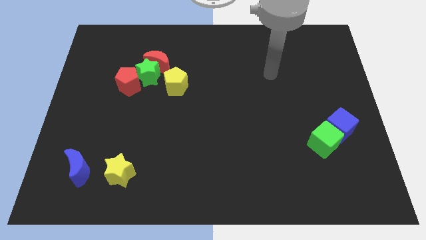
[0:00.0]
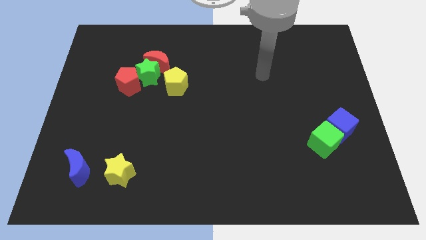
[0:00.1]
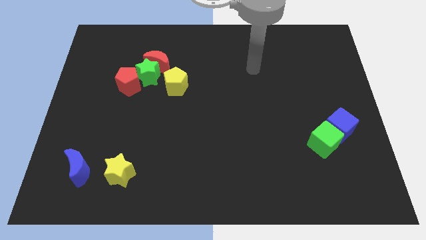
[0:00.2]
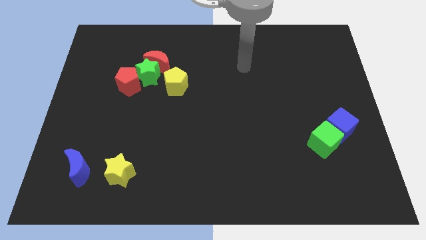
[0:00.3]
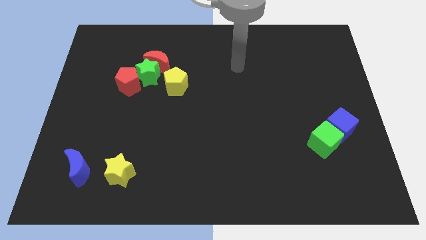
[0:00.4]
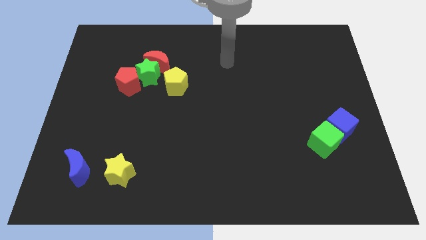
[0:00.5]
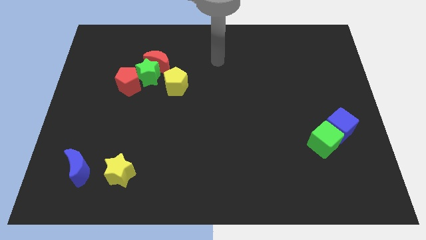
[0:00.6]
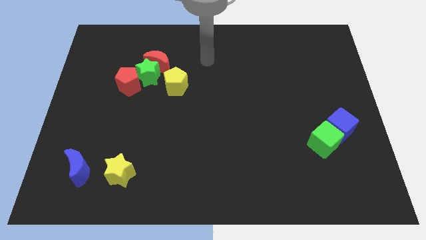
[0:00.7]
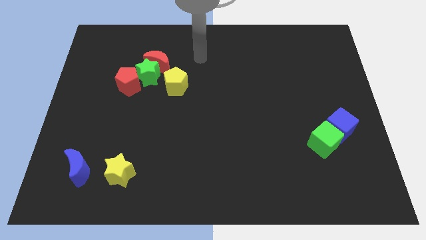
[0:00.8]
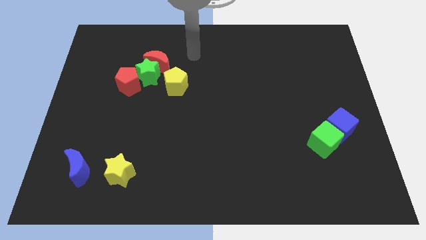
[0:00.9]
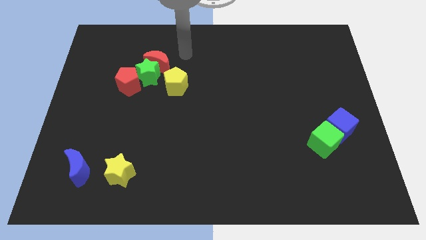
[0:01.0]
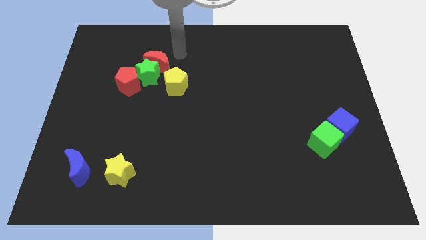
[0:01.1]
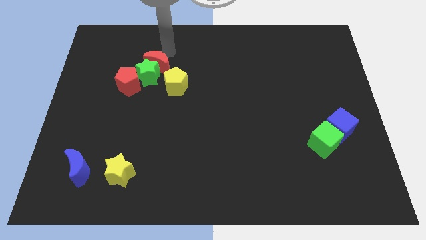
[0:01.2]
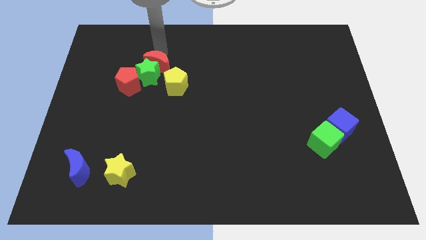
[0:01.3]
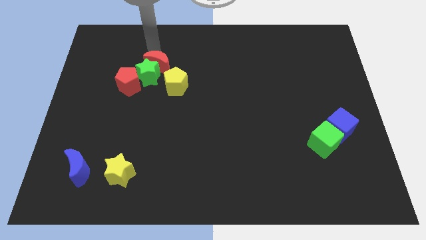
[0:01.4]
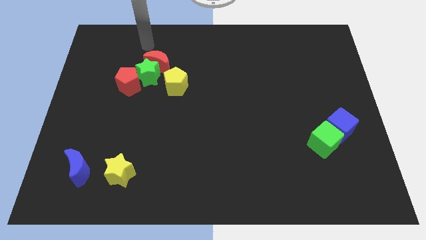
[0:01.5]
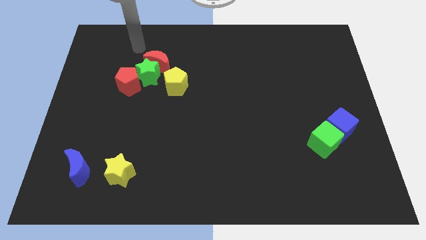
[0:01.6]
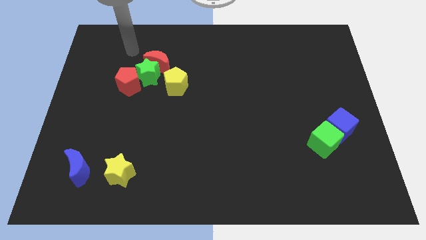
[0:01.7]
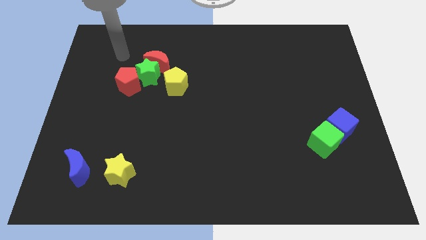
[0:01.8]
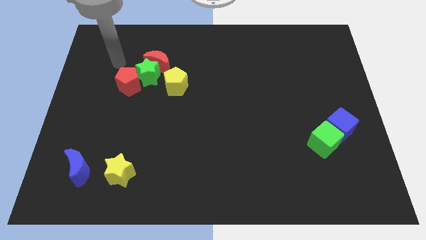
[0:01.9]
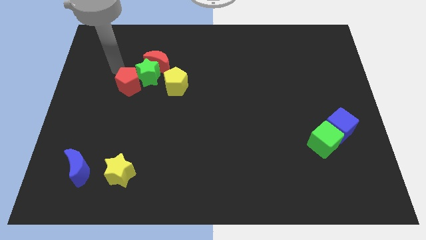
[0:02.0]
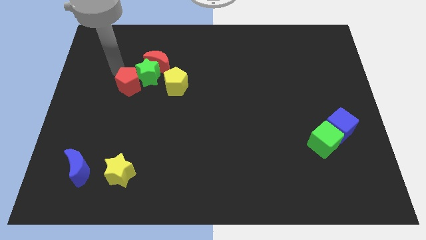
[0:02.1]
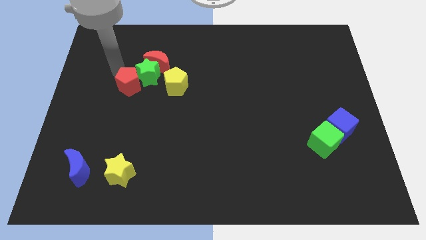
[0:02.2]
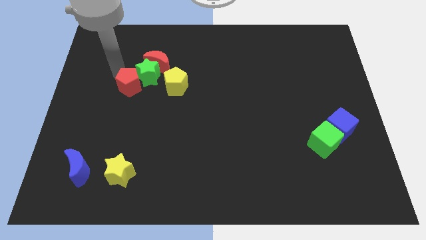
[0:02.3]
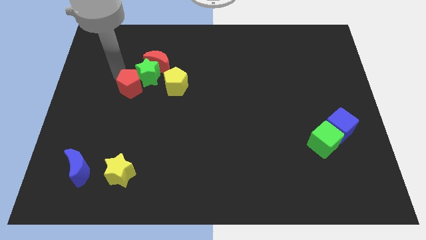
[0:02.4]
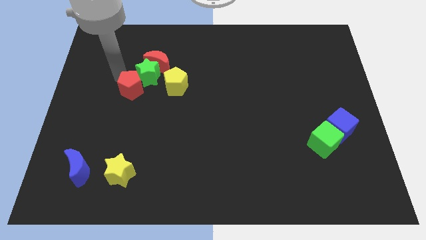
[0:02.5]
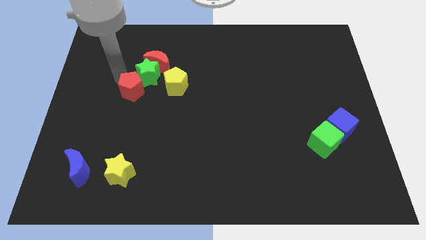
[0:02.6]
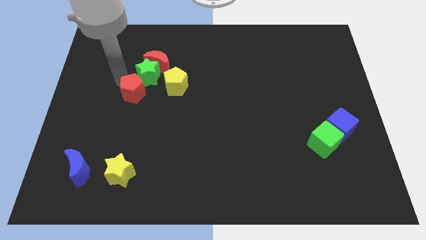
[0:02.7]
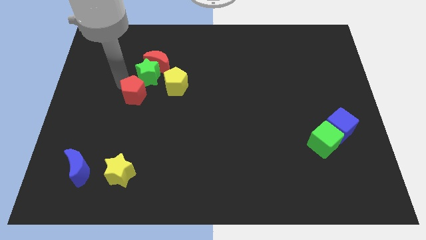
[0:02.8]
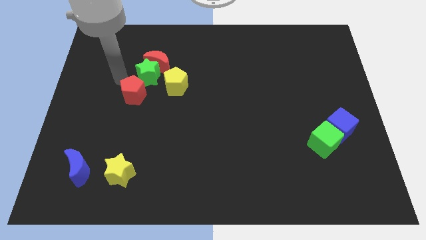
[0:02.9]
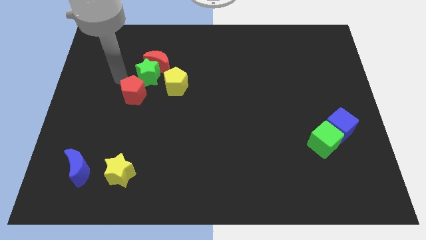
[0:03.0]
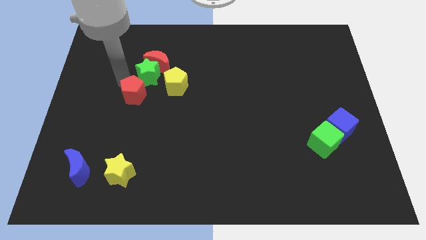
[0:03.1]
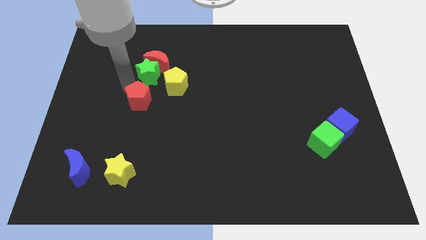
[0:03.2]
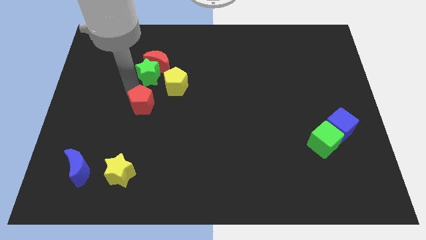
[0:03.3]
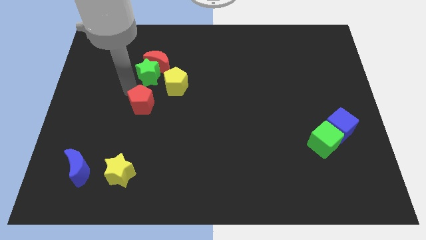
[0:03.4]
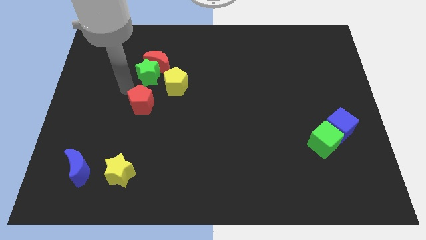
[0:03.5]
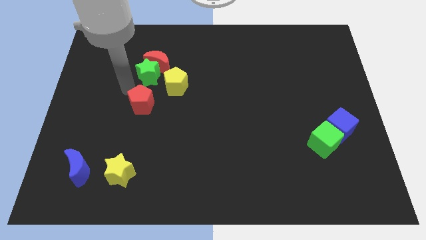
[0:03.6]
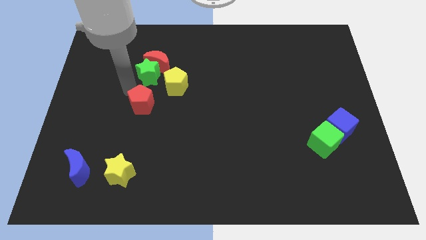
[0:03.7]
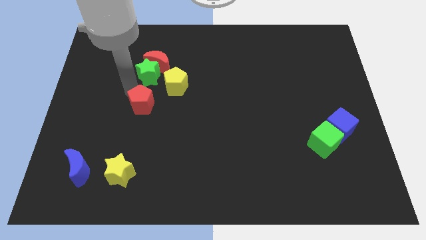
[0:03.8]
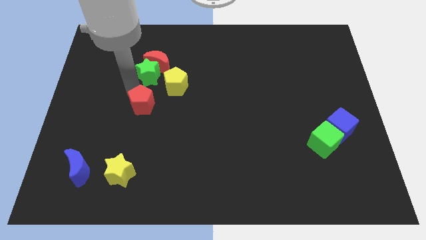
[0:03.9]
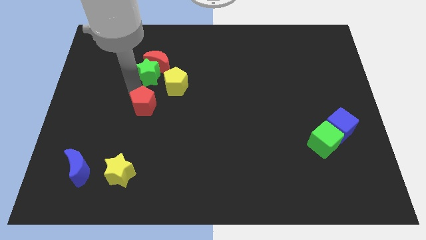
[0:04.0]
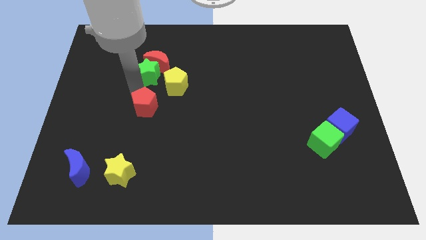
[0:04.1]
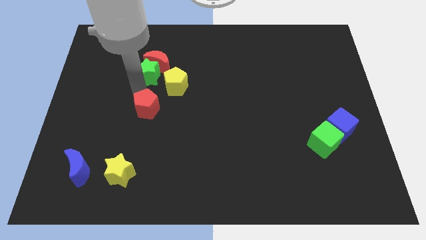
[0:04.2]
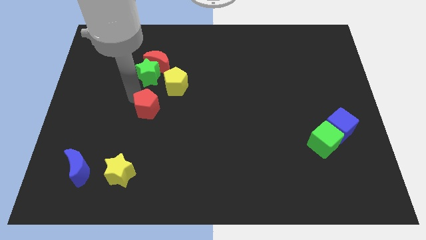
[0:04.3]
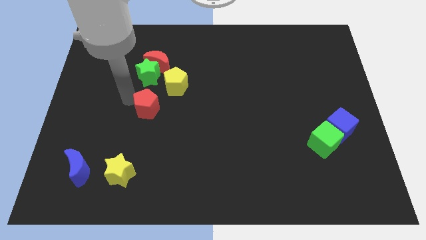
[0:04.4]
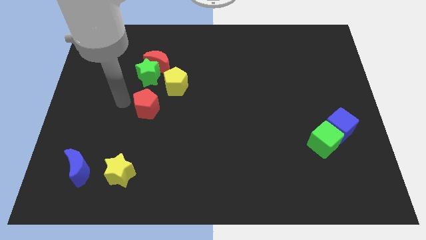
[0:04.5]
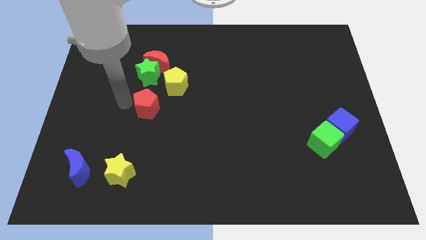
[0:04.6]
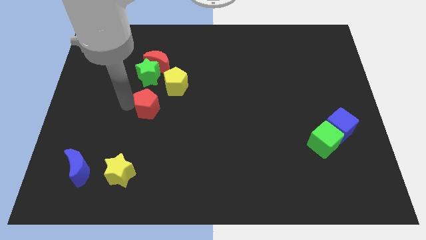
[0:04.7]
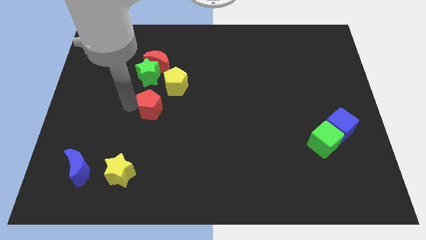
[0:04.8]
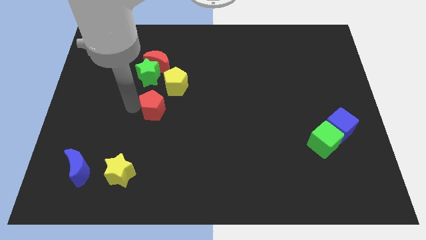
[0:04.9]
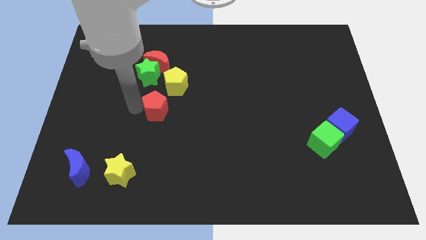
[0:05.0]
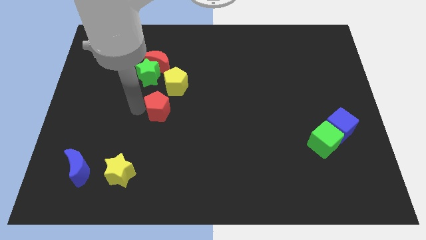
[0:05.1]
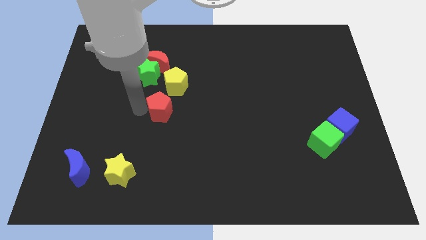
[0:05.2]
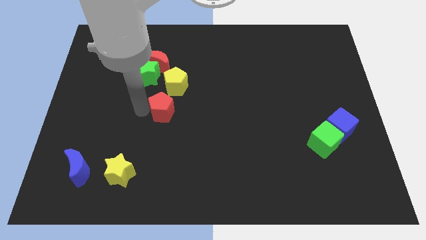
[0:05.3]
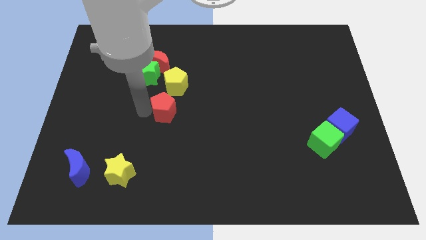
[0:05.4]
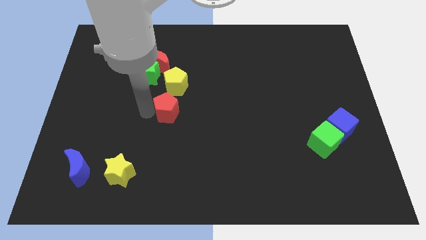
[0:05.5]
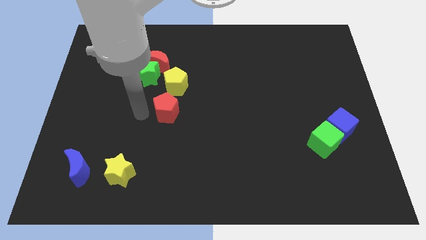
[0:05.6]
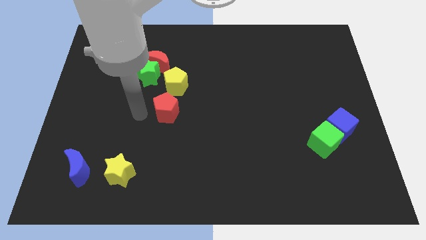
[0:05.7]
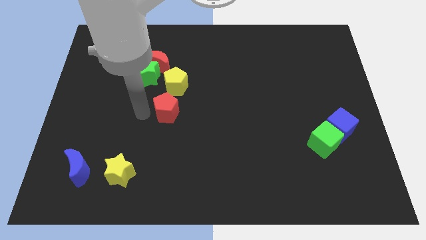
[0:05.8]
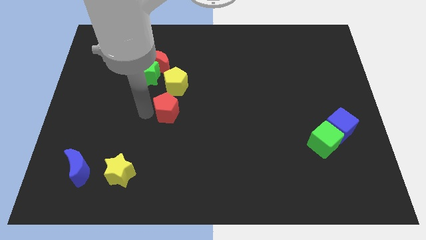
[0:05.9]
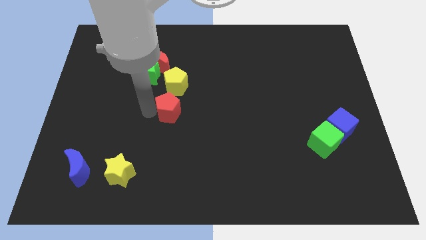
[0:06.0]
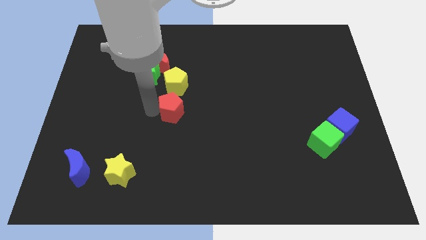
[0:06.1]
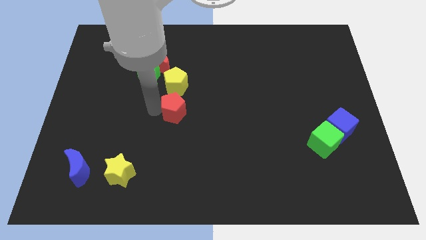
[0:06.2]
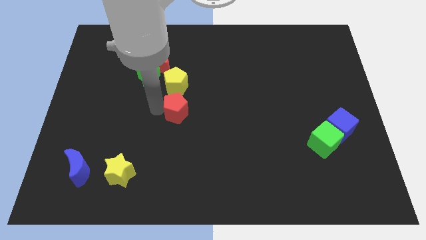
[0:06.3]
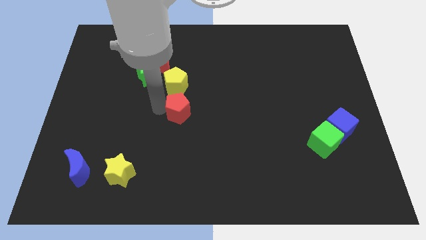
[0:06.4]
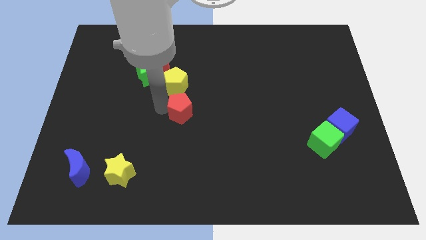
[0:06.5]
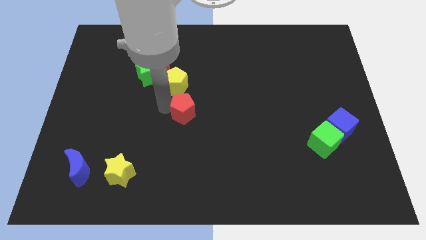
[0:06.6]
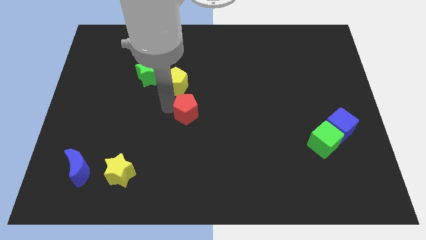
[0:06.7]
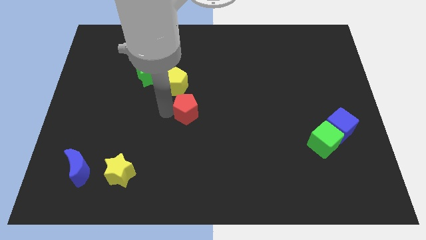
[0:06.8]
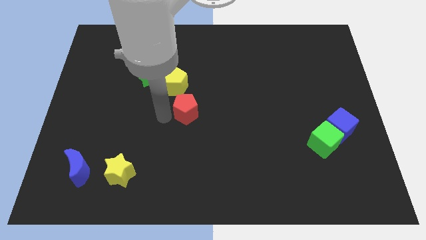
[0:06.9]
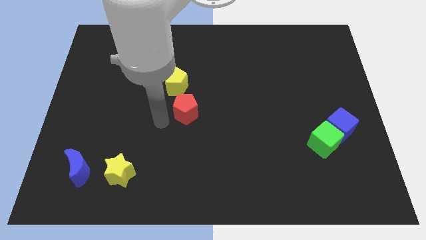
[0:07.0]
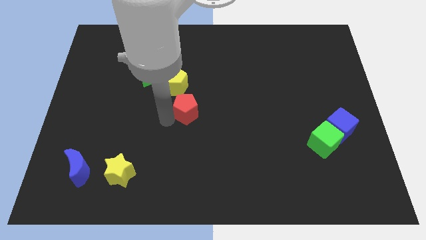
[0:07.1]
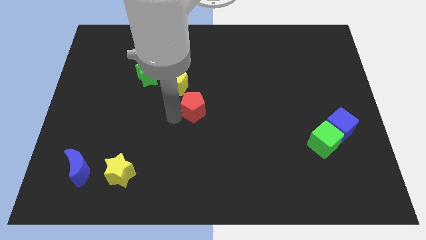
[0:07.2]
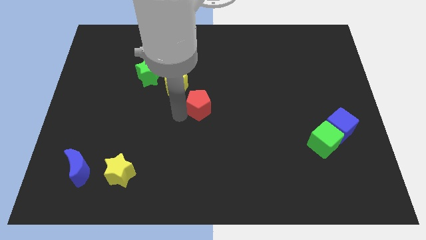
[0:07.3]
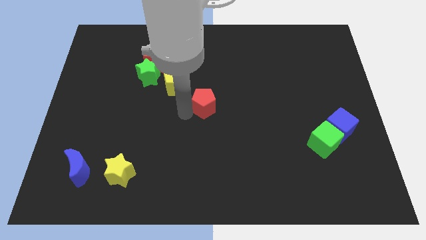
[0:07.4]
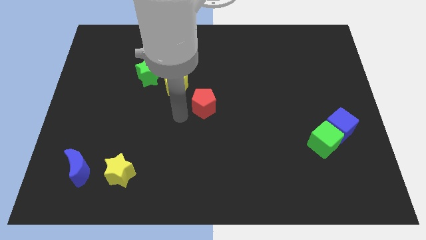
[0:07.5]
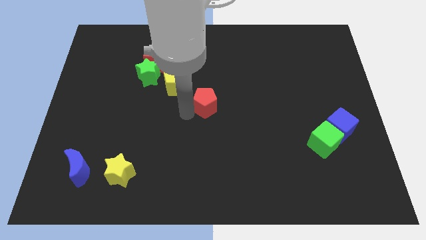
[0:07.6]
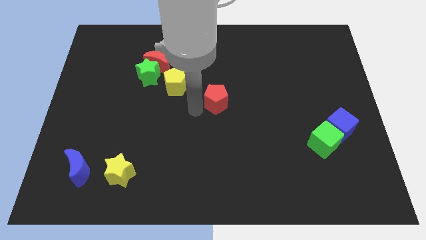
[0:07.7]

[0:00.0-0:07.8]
push the red pentagon right

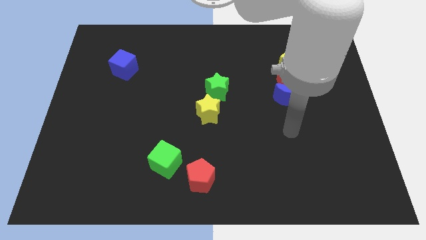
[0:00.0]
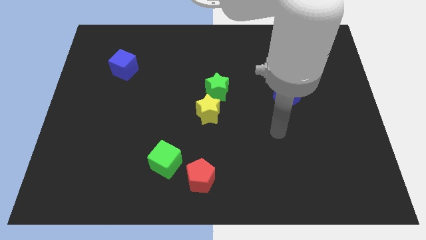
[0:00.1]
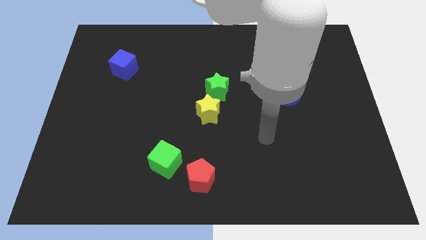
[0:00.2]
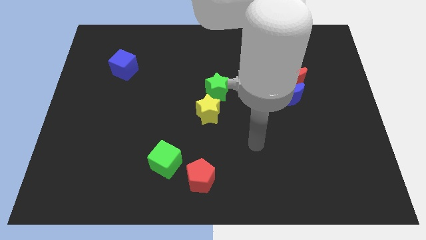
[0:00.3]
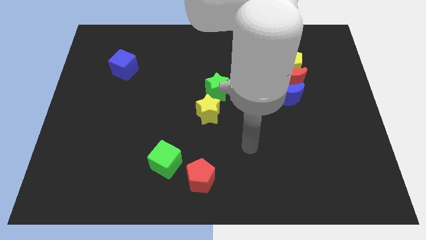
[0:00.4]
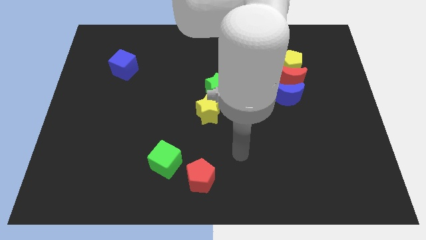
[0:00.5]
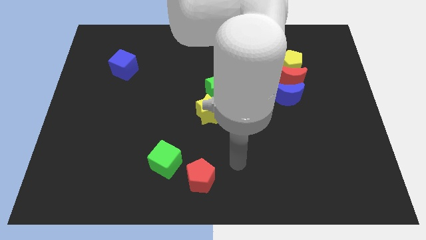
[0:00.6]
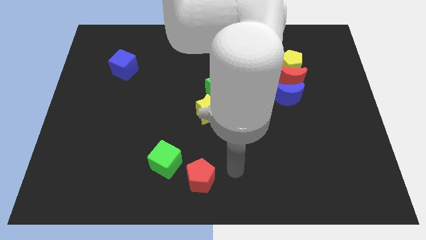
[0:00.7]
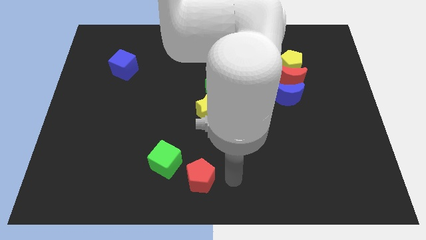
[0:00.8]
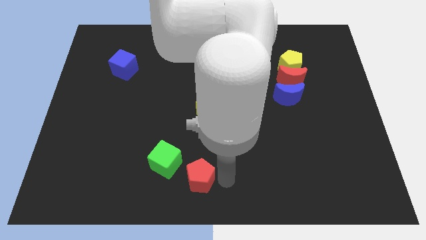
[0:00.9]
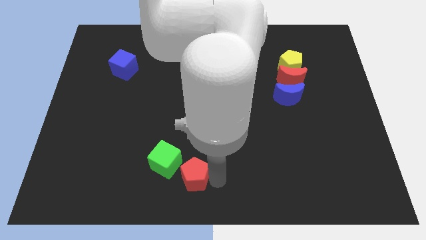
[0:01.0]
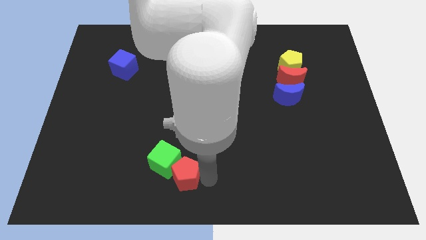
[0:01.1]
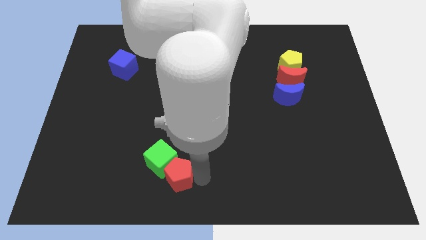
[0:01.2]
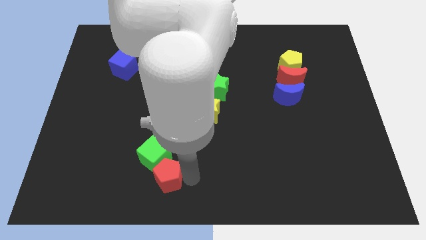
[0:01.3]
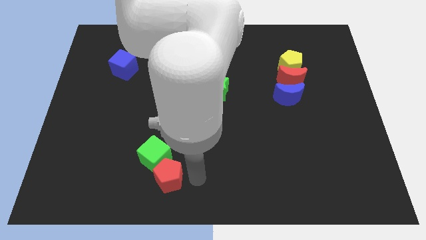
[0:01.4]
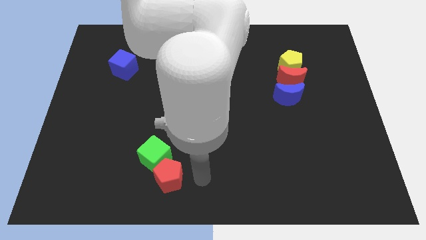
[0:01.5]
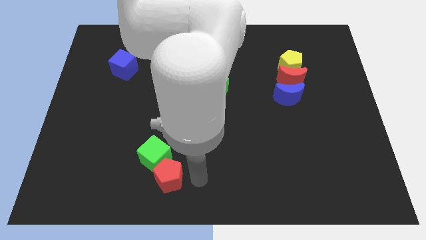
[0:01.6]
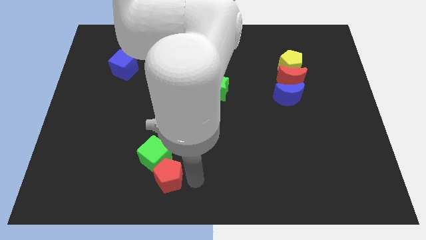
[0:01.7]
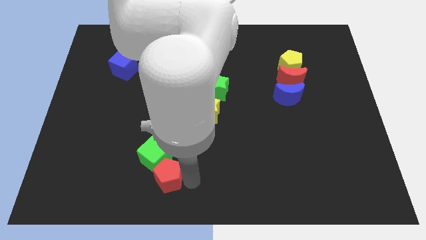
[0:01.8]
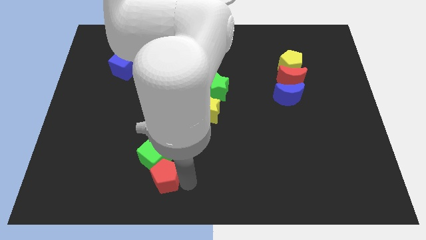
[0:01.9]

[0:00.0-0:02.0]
slightly slide the red pentagon left
